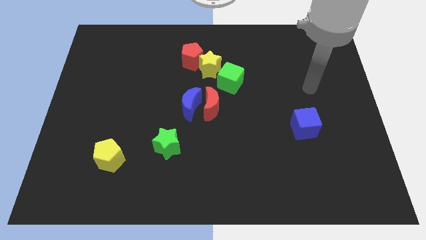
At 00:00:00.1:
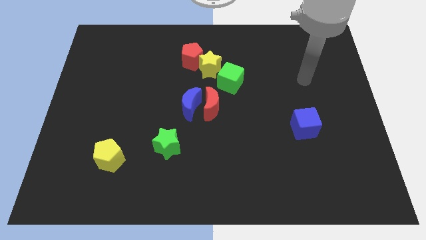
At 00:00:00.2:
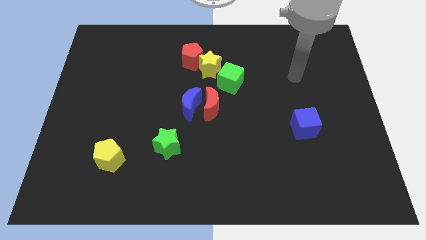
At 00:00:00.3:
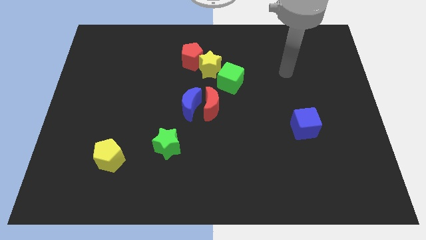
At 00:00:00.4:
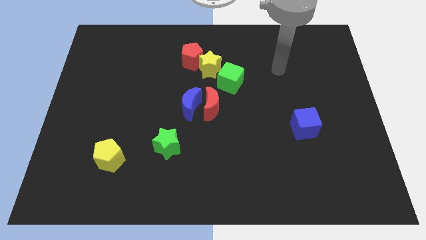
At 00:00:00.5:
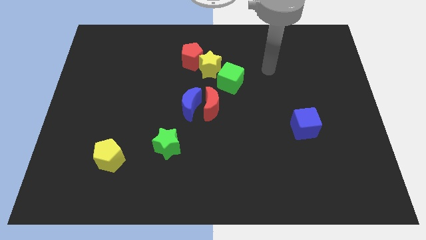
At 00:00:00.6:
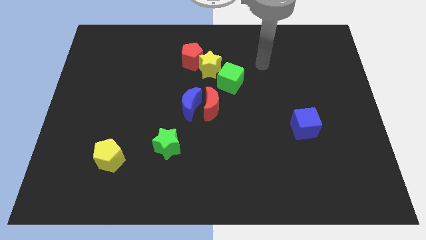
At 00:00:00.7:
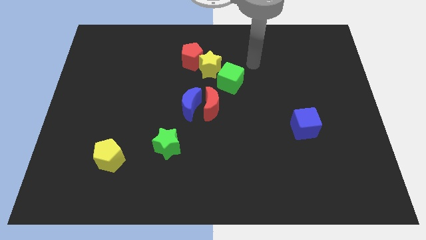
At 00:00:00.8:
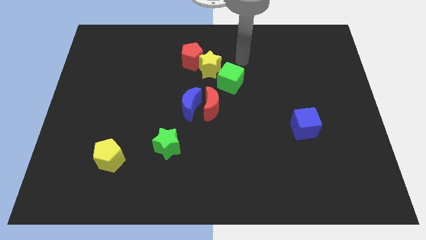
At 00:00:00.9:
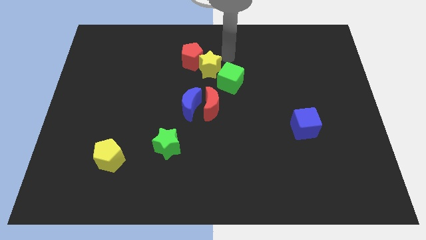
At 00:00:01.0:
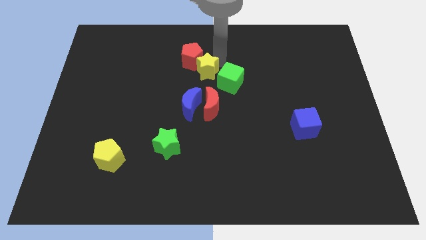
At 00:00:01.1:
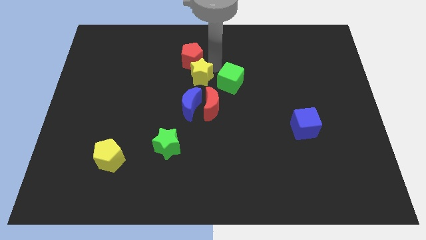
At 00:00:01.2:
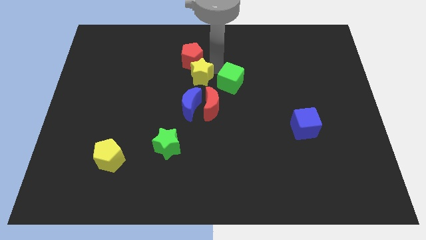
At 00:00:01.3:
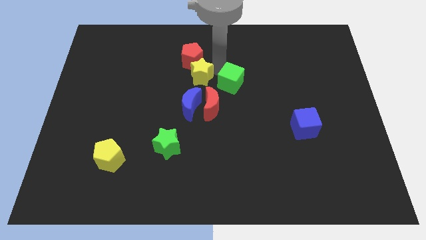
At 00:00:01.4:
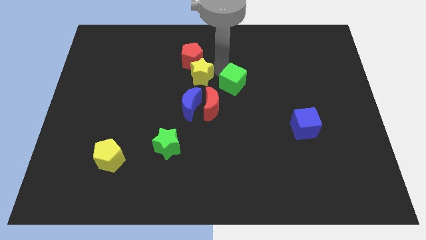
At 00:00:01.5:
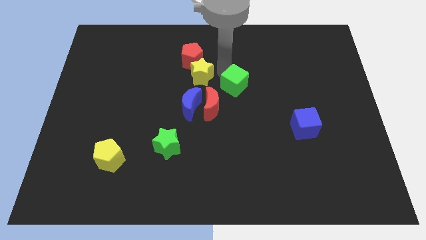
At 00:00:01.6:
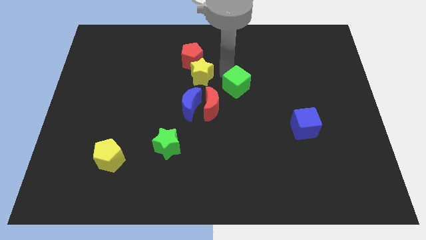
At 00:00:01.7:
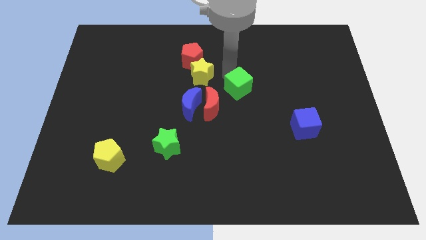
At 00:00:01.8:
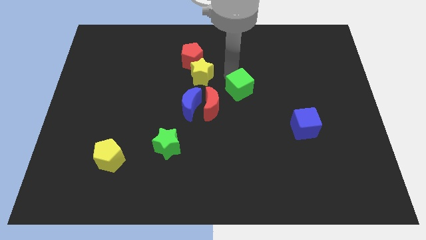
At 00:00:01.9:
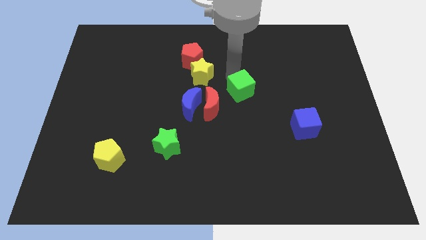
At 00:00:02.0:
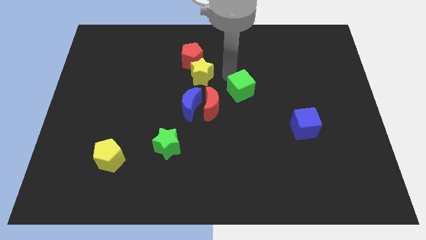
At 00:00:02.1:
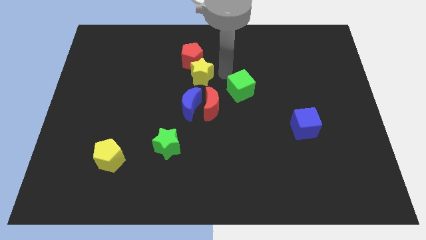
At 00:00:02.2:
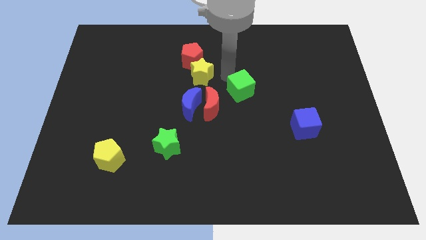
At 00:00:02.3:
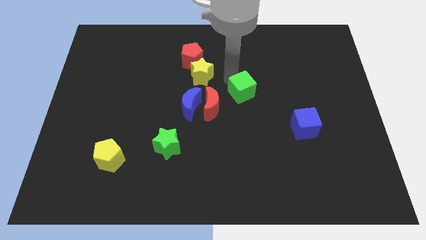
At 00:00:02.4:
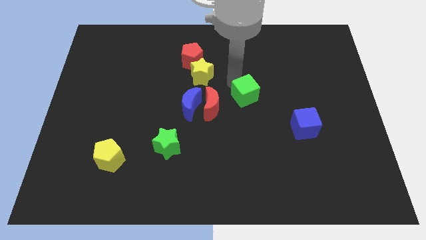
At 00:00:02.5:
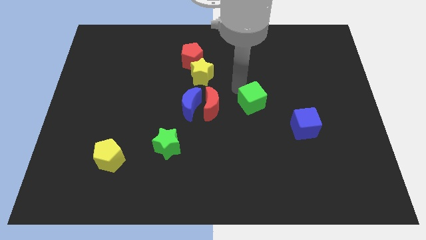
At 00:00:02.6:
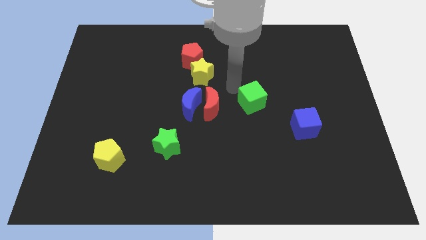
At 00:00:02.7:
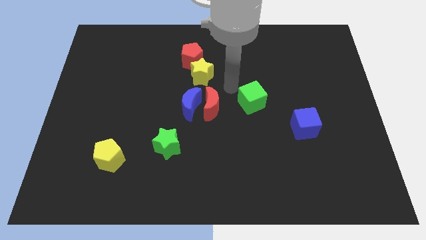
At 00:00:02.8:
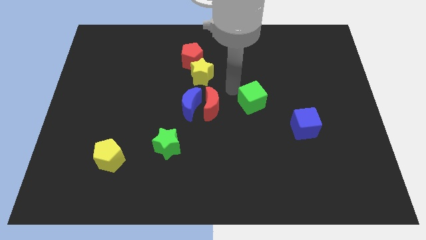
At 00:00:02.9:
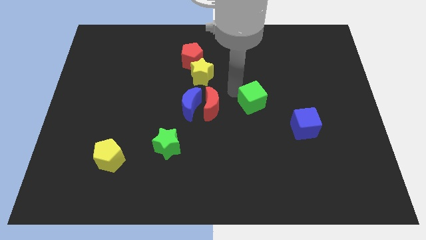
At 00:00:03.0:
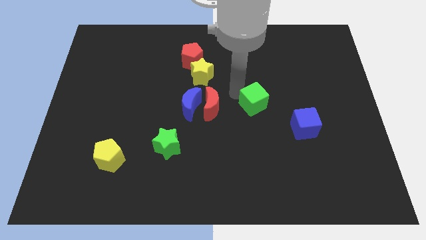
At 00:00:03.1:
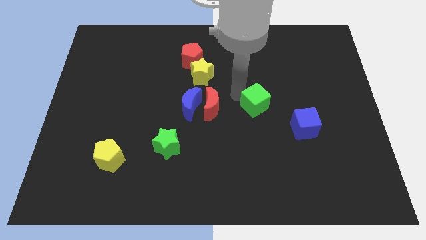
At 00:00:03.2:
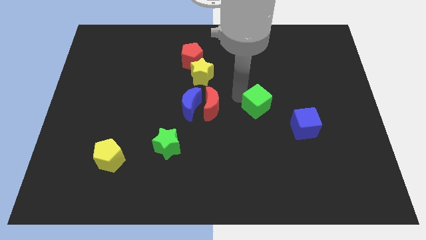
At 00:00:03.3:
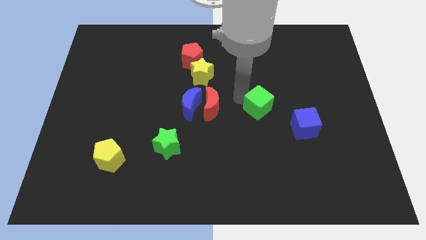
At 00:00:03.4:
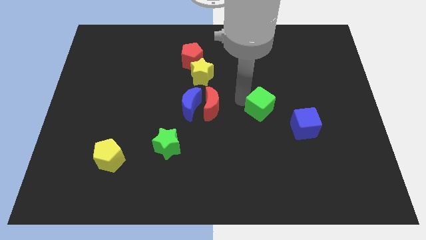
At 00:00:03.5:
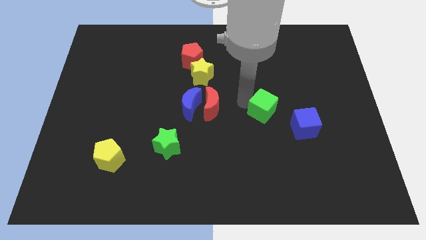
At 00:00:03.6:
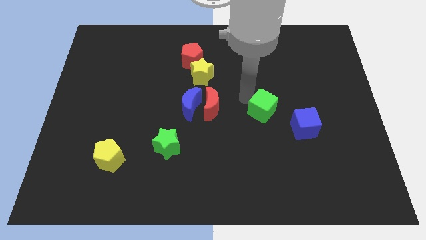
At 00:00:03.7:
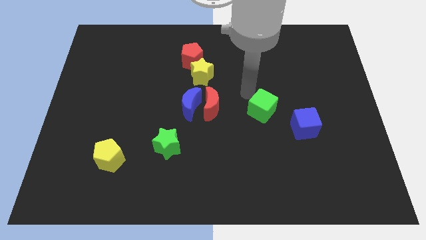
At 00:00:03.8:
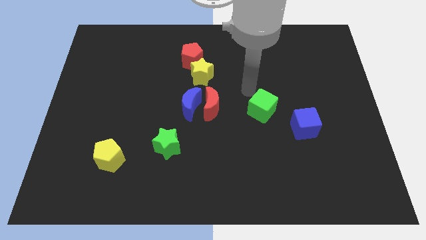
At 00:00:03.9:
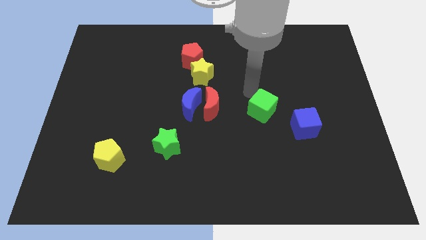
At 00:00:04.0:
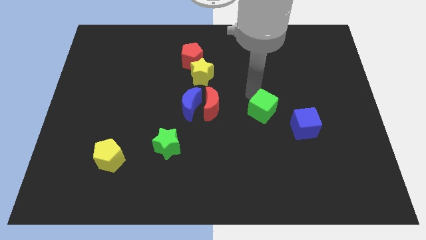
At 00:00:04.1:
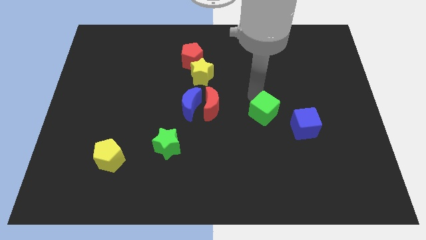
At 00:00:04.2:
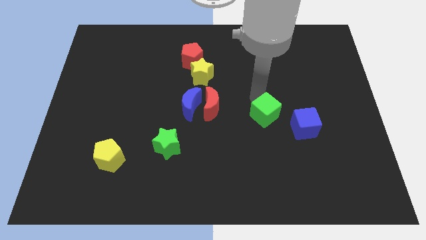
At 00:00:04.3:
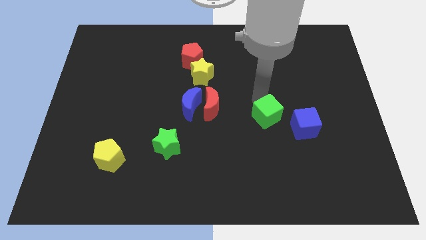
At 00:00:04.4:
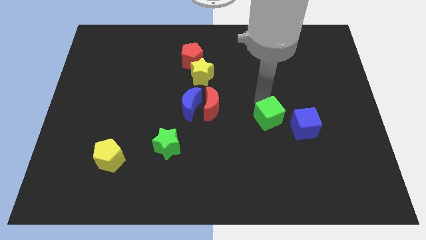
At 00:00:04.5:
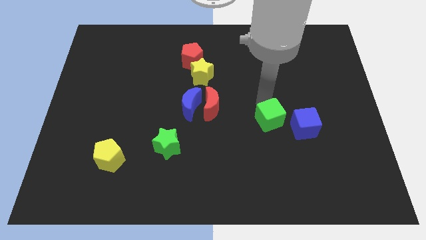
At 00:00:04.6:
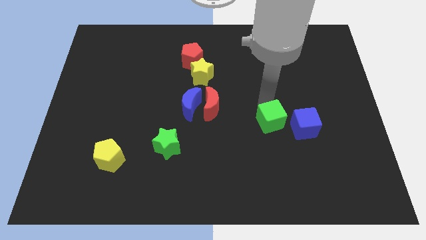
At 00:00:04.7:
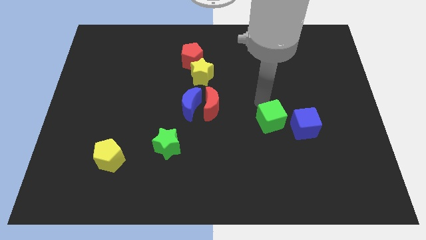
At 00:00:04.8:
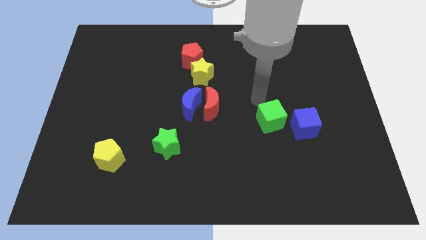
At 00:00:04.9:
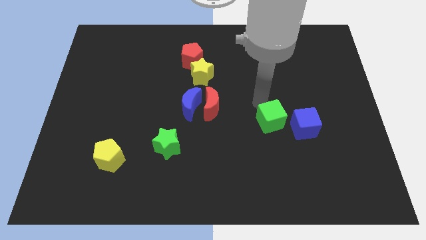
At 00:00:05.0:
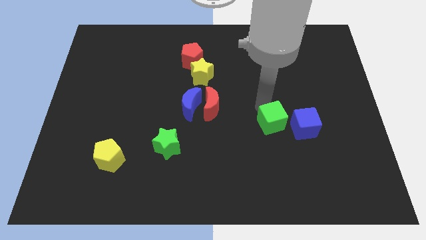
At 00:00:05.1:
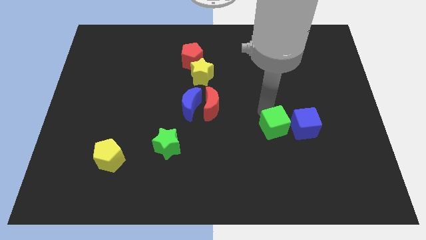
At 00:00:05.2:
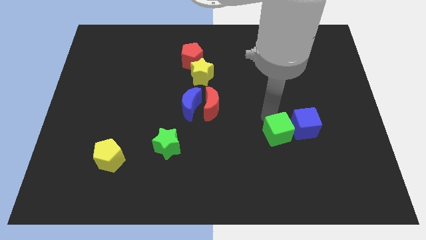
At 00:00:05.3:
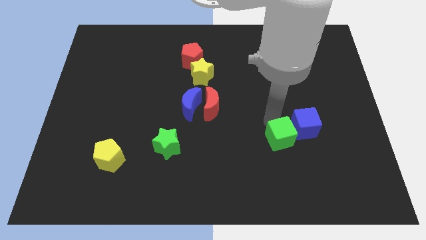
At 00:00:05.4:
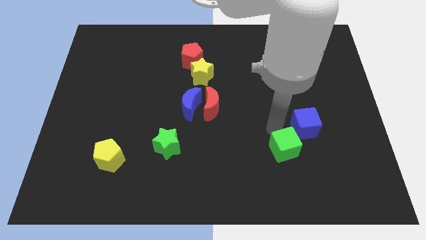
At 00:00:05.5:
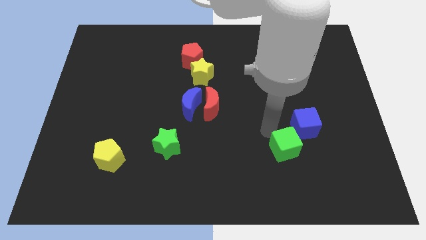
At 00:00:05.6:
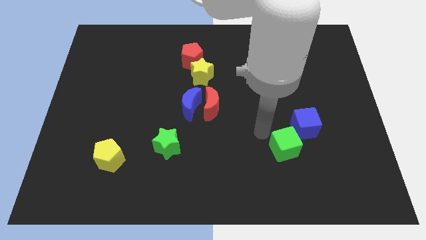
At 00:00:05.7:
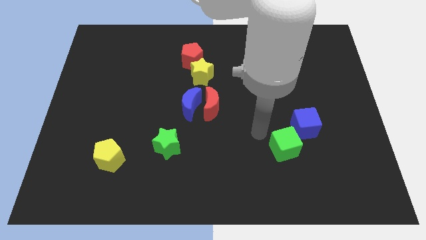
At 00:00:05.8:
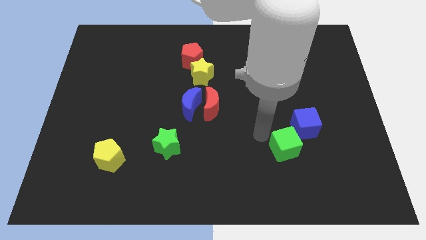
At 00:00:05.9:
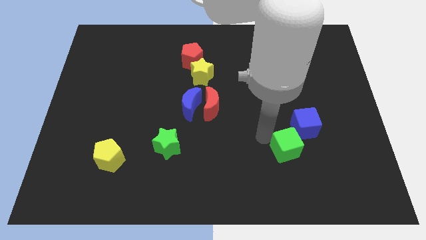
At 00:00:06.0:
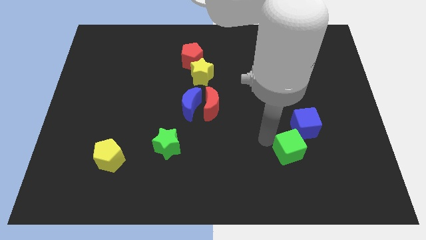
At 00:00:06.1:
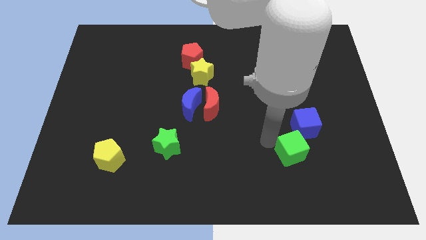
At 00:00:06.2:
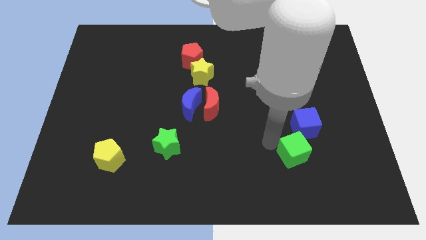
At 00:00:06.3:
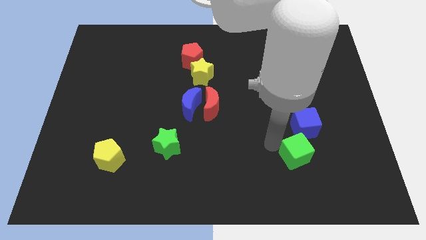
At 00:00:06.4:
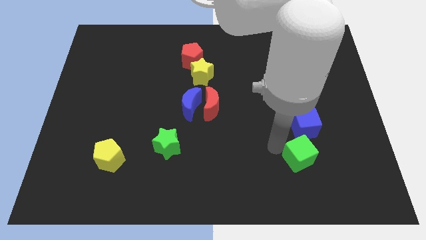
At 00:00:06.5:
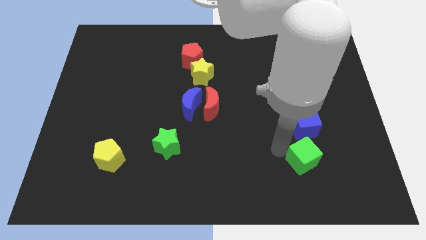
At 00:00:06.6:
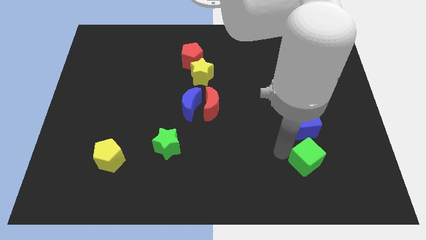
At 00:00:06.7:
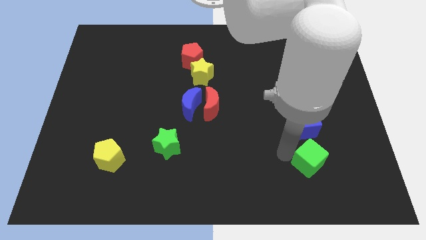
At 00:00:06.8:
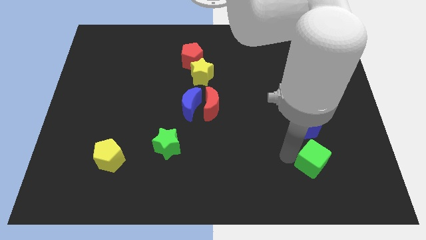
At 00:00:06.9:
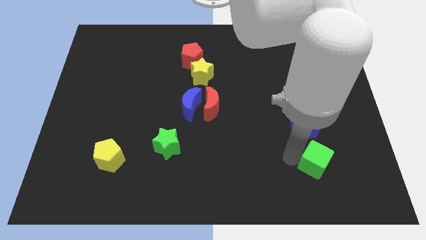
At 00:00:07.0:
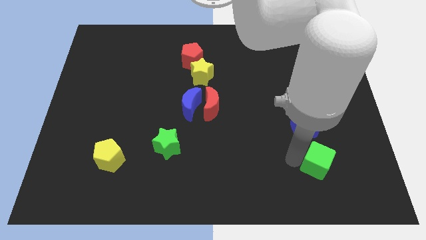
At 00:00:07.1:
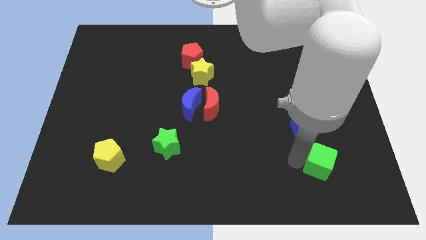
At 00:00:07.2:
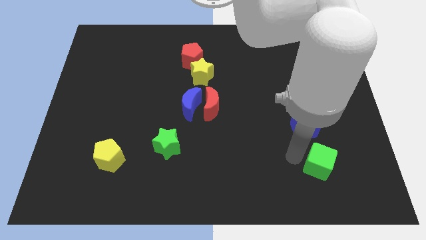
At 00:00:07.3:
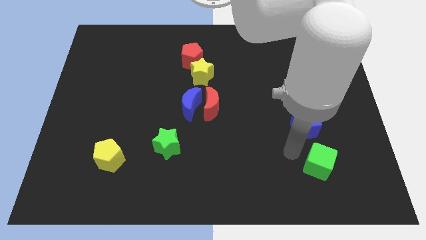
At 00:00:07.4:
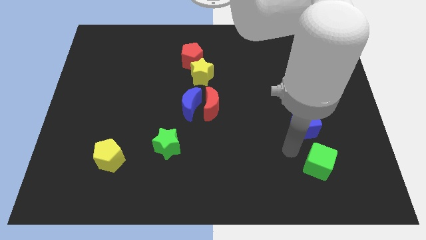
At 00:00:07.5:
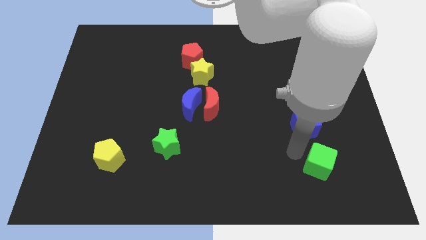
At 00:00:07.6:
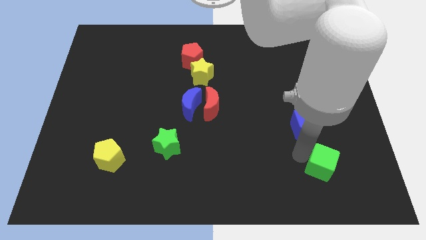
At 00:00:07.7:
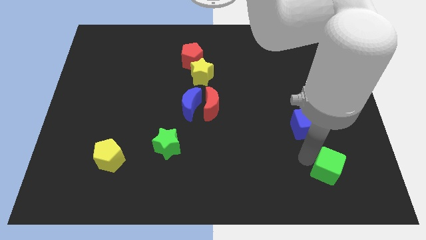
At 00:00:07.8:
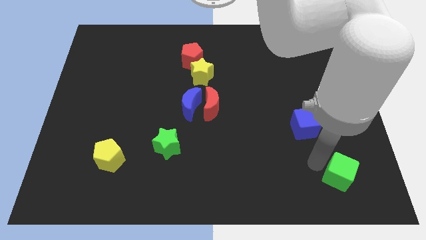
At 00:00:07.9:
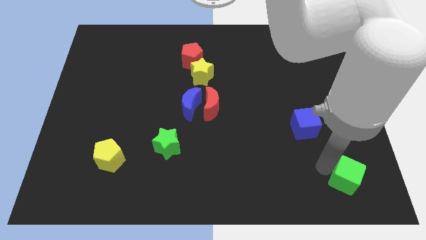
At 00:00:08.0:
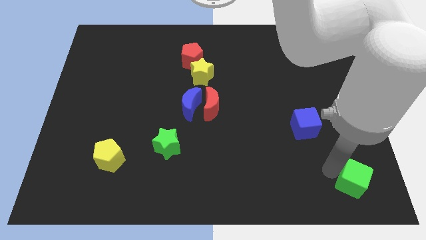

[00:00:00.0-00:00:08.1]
push the green cube to the bottom right
